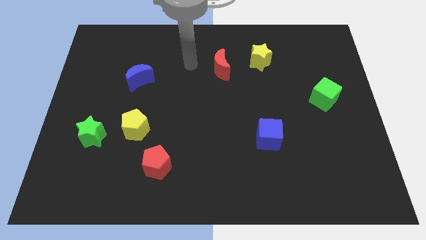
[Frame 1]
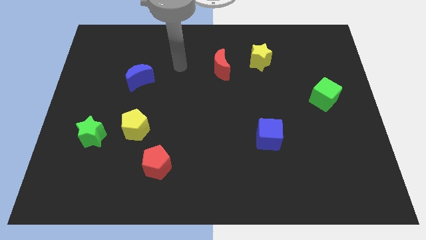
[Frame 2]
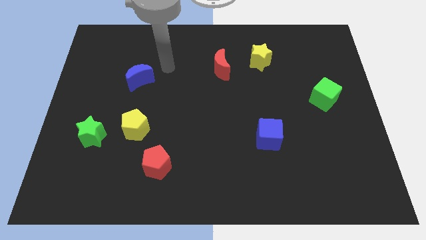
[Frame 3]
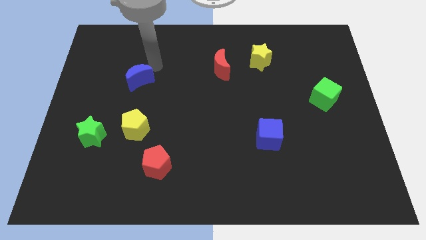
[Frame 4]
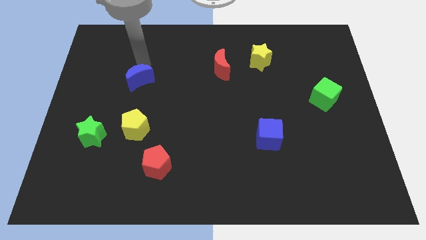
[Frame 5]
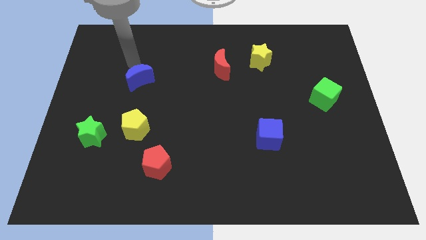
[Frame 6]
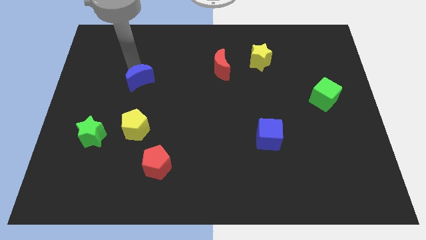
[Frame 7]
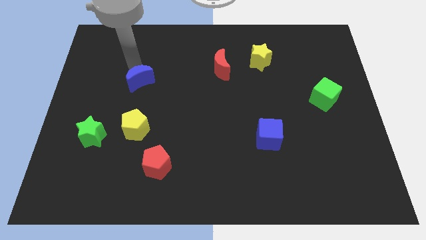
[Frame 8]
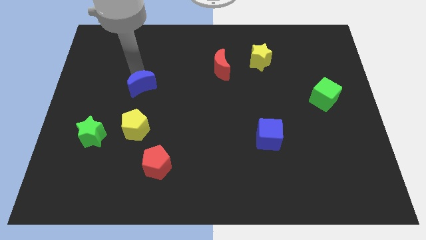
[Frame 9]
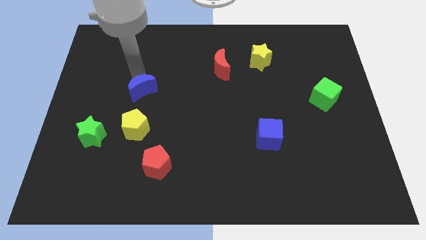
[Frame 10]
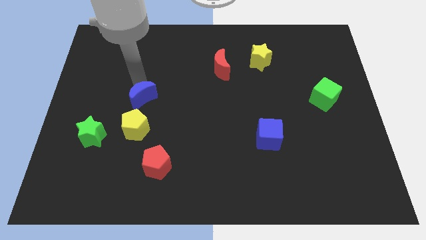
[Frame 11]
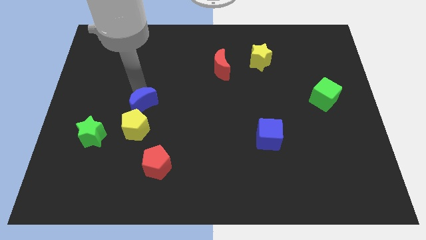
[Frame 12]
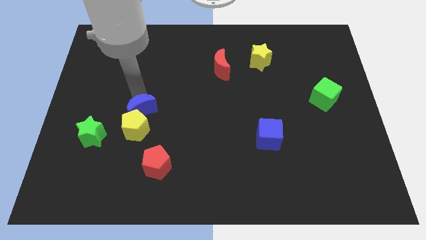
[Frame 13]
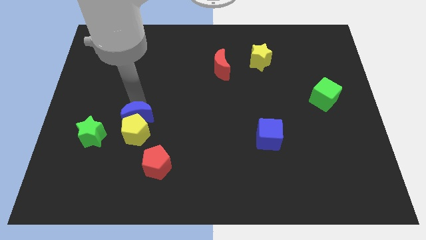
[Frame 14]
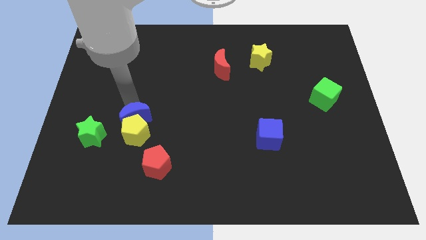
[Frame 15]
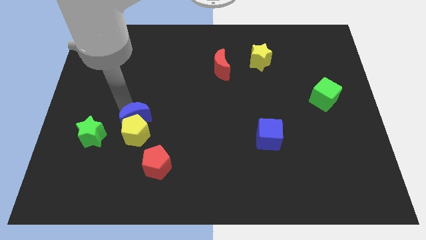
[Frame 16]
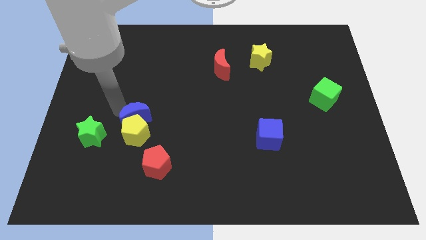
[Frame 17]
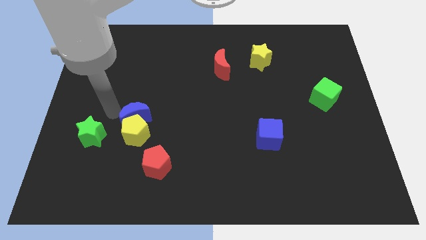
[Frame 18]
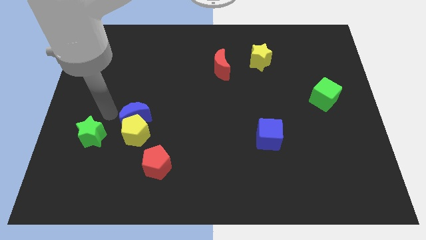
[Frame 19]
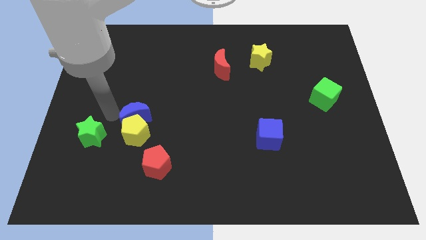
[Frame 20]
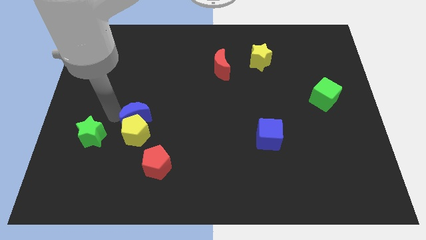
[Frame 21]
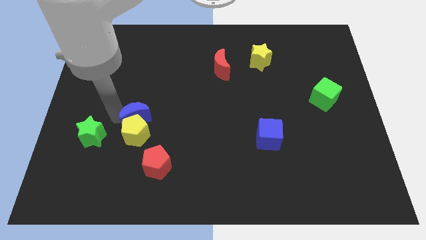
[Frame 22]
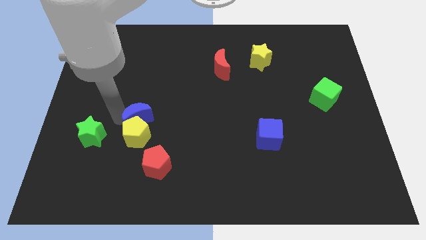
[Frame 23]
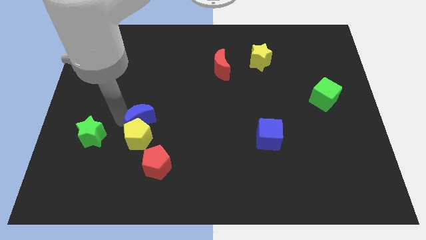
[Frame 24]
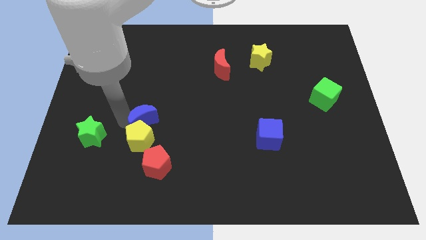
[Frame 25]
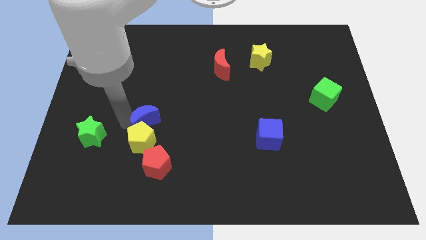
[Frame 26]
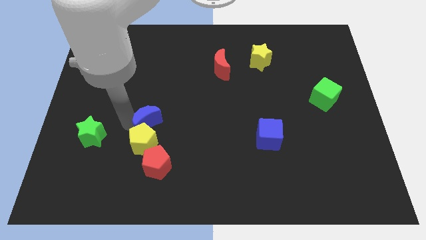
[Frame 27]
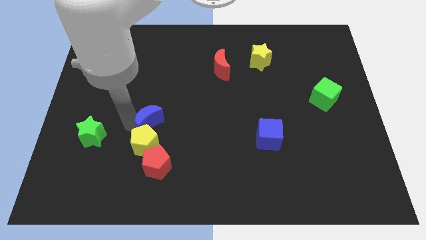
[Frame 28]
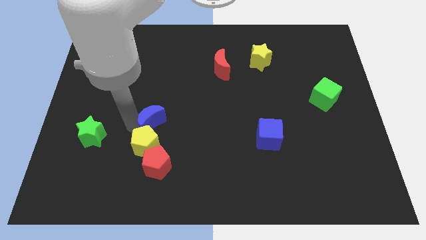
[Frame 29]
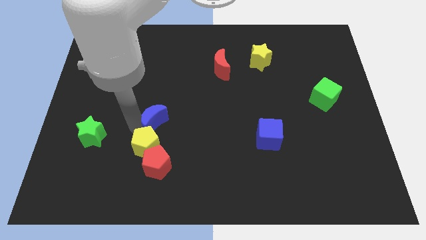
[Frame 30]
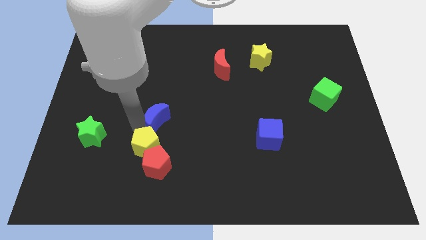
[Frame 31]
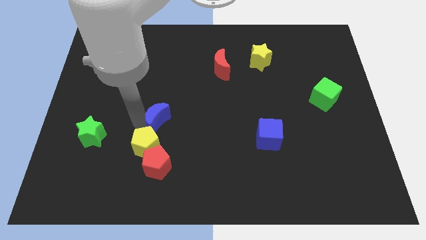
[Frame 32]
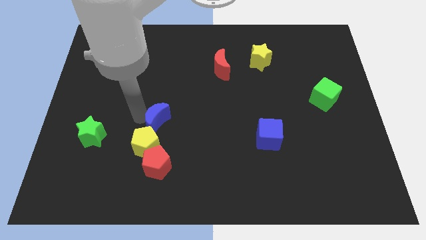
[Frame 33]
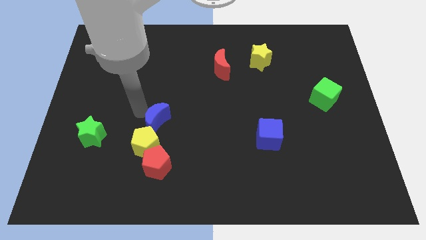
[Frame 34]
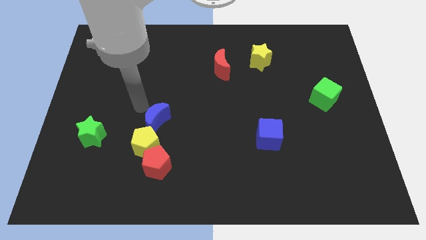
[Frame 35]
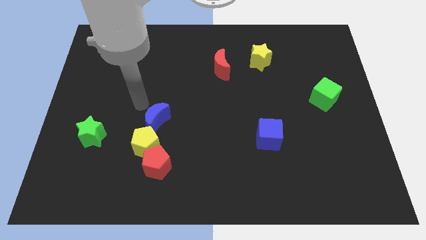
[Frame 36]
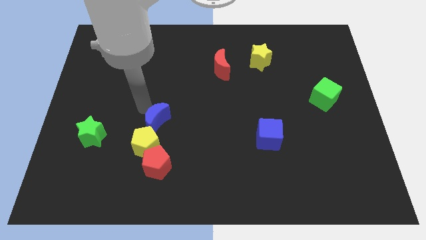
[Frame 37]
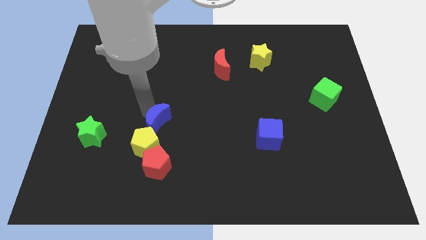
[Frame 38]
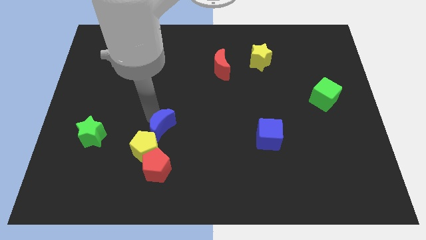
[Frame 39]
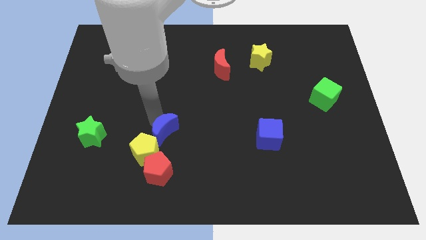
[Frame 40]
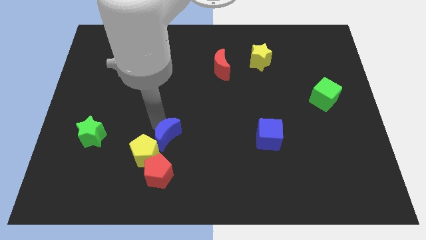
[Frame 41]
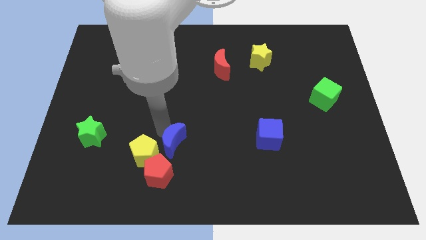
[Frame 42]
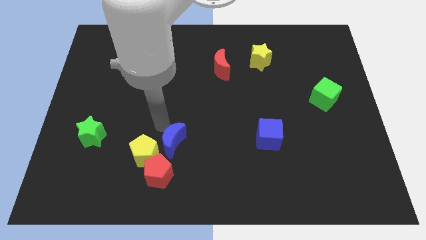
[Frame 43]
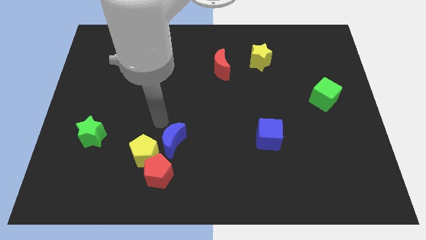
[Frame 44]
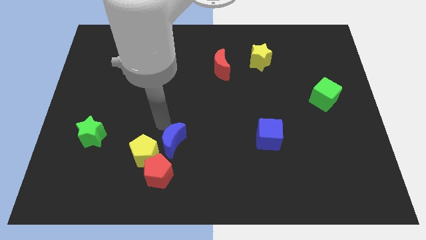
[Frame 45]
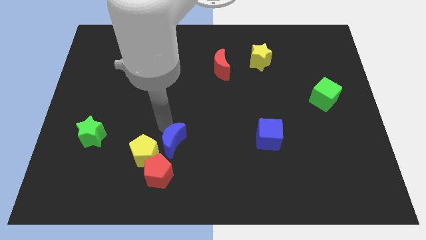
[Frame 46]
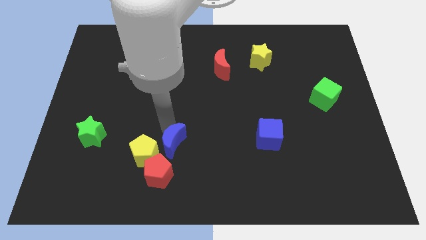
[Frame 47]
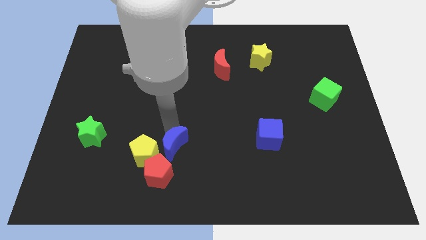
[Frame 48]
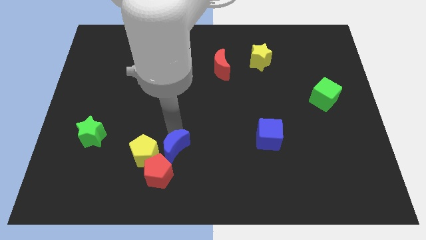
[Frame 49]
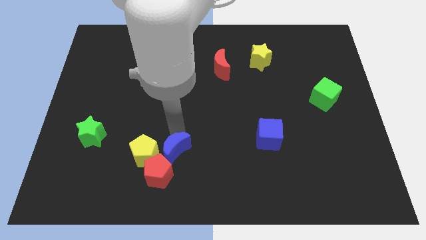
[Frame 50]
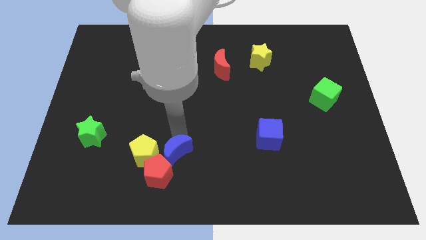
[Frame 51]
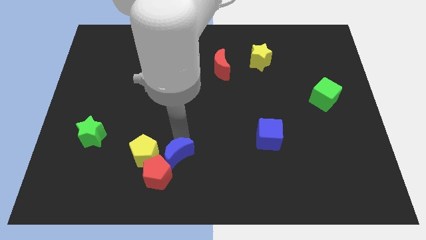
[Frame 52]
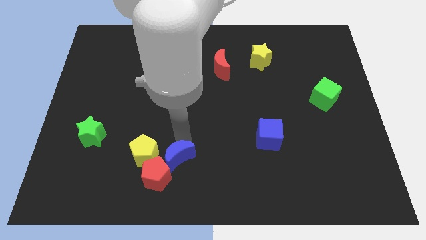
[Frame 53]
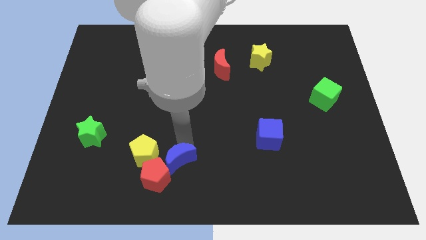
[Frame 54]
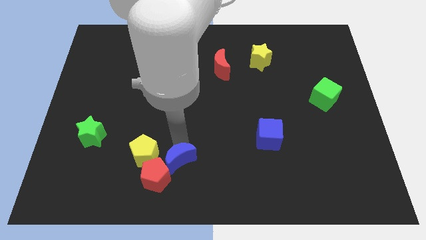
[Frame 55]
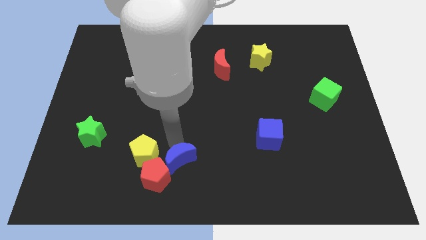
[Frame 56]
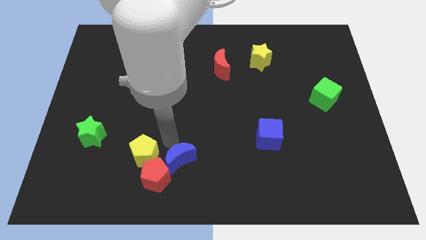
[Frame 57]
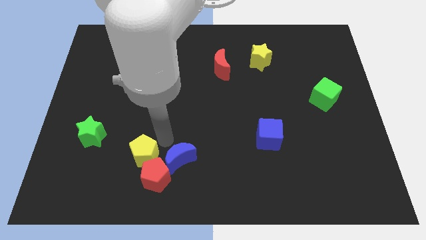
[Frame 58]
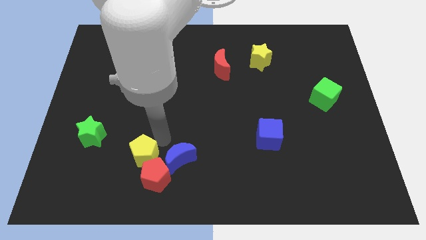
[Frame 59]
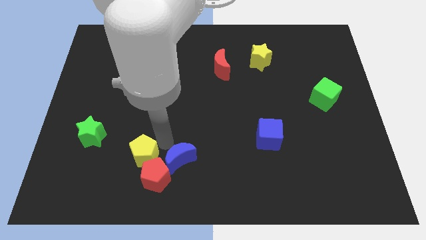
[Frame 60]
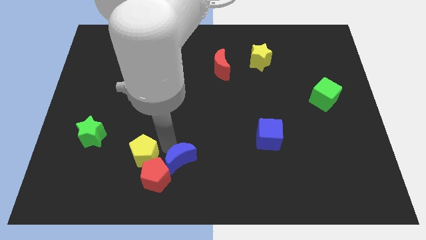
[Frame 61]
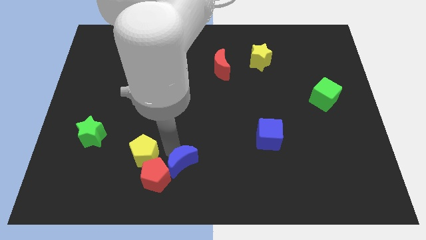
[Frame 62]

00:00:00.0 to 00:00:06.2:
put the blue moon to the bottom side
